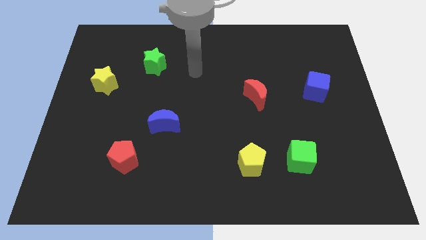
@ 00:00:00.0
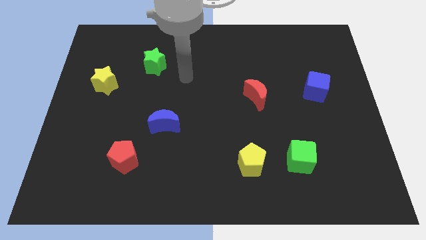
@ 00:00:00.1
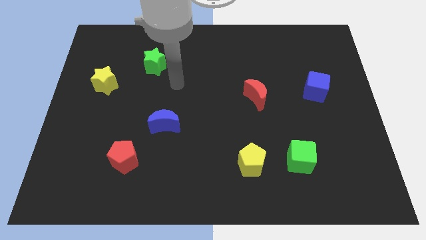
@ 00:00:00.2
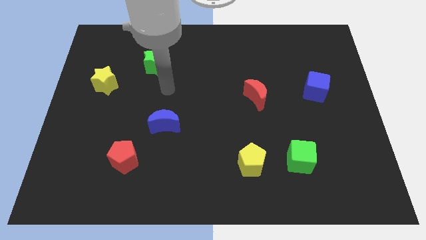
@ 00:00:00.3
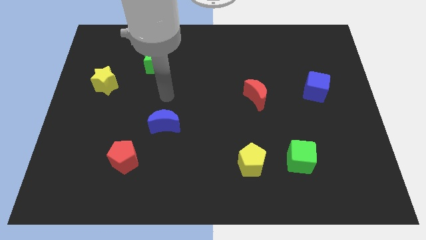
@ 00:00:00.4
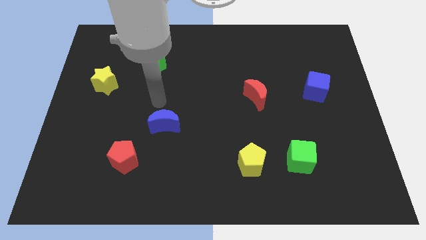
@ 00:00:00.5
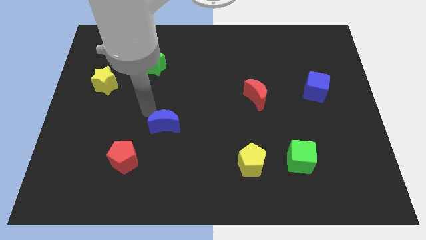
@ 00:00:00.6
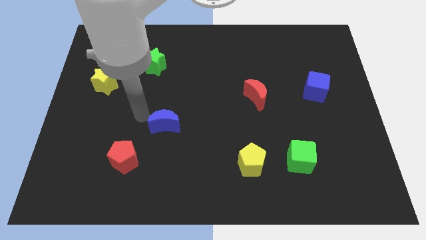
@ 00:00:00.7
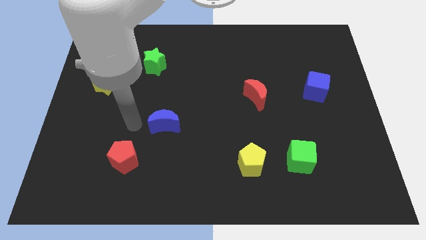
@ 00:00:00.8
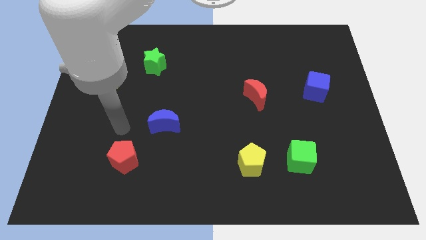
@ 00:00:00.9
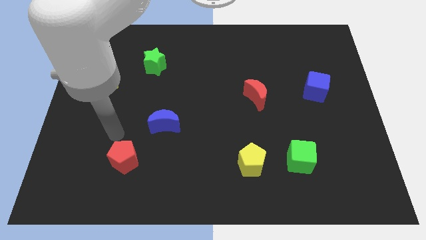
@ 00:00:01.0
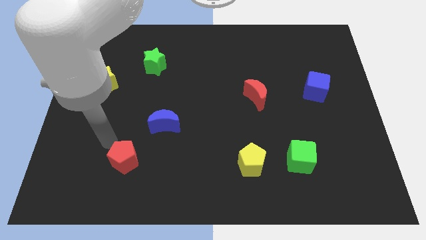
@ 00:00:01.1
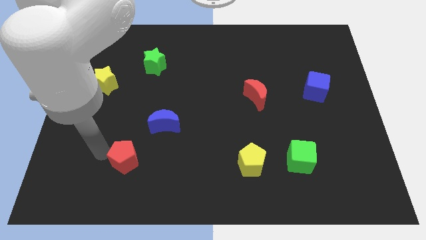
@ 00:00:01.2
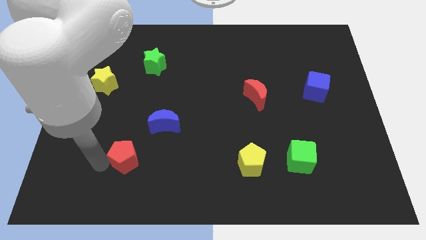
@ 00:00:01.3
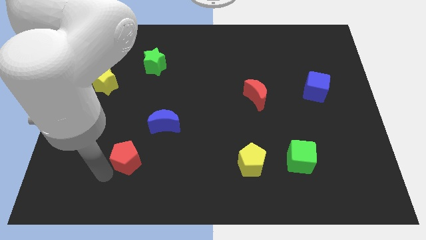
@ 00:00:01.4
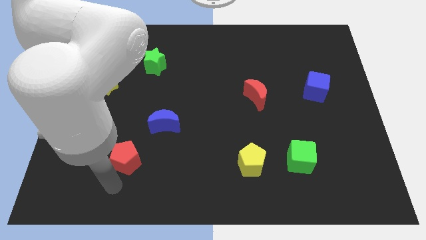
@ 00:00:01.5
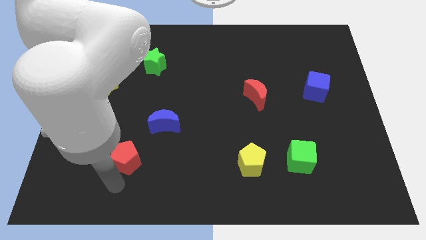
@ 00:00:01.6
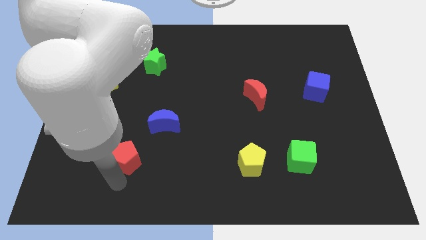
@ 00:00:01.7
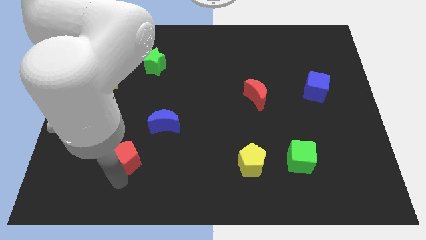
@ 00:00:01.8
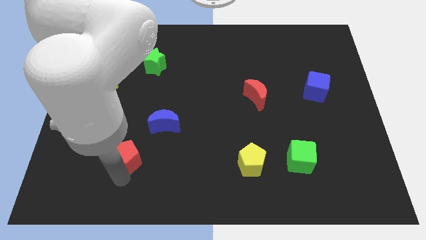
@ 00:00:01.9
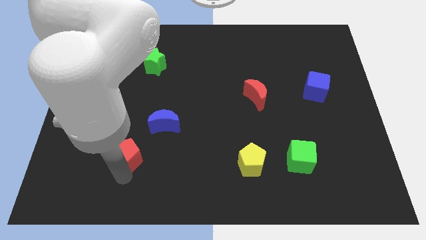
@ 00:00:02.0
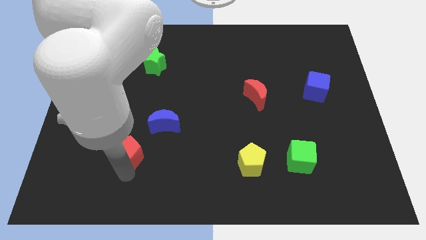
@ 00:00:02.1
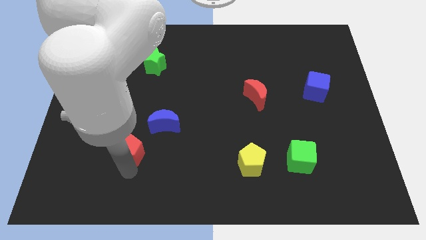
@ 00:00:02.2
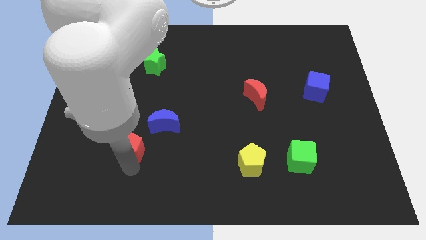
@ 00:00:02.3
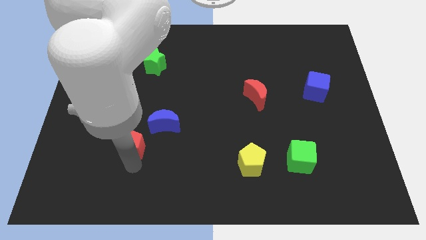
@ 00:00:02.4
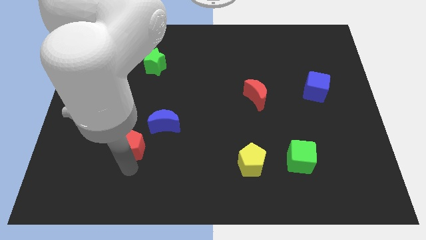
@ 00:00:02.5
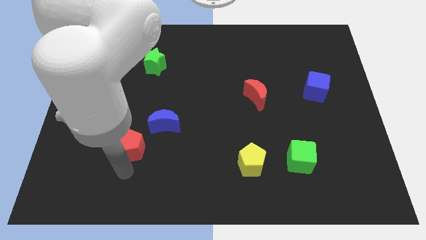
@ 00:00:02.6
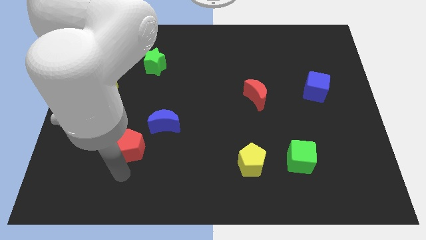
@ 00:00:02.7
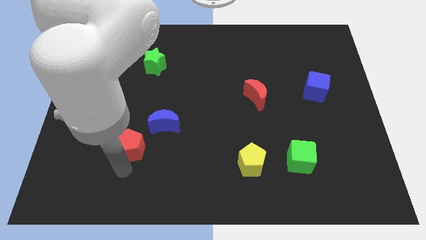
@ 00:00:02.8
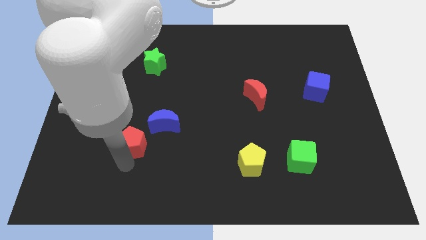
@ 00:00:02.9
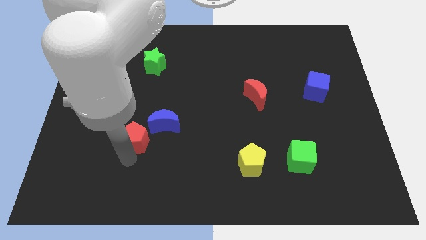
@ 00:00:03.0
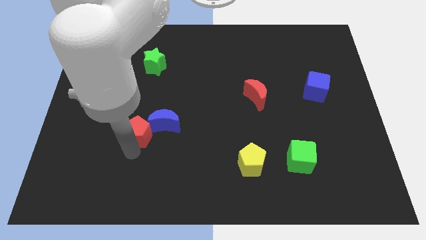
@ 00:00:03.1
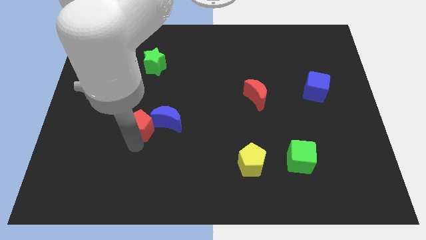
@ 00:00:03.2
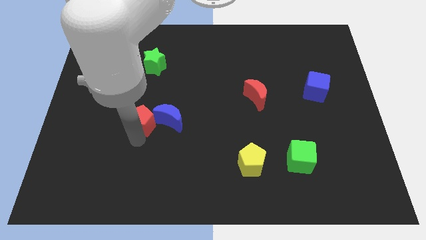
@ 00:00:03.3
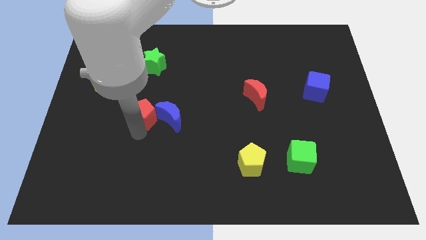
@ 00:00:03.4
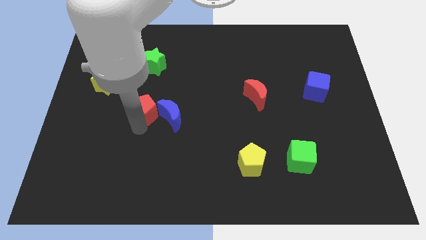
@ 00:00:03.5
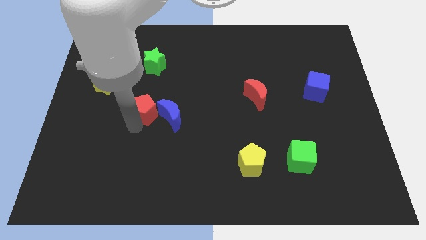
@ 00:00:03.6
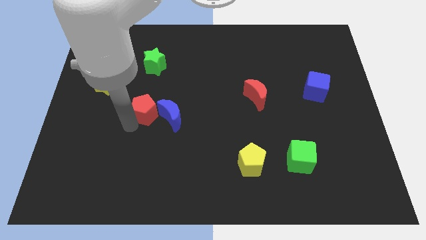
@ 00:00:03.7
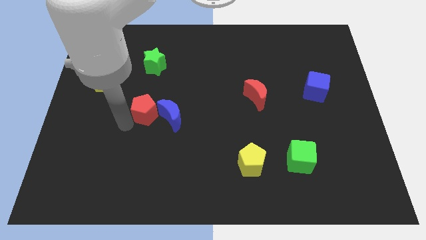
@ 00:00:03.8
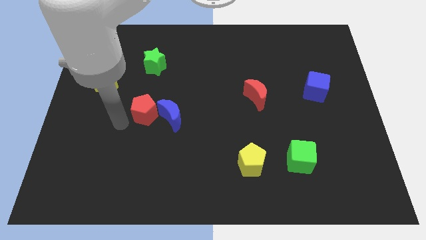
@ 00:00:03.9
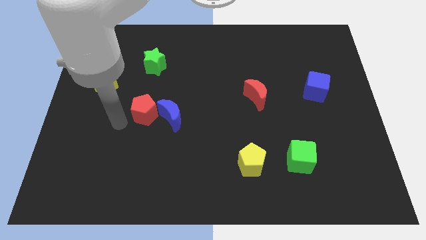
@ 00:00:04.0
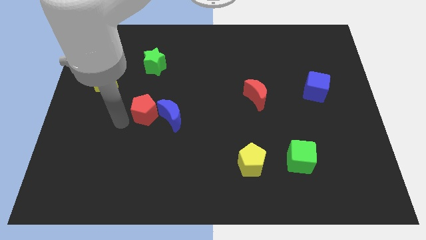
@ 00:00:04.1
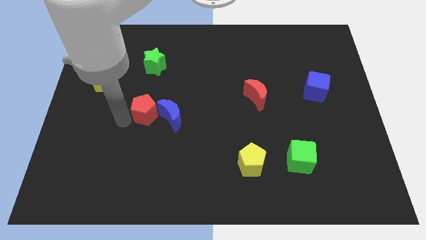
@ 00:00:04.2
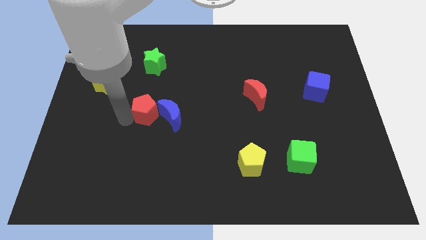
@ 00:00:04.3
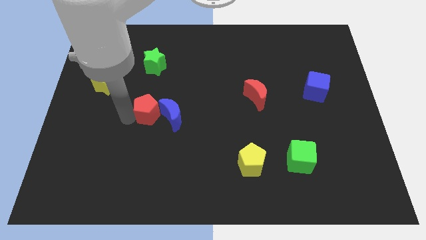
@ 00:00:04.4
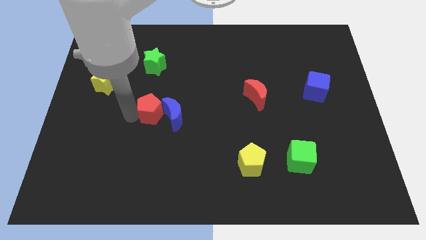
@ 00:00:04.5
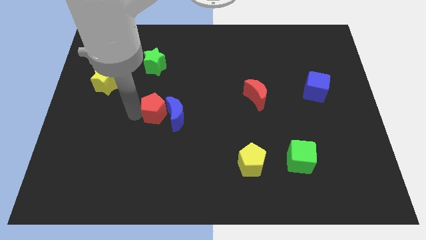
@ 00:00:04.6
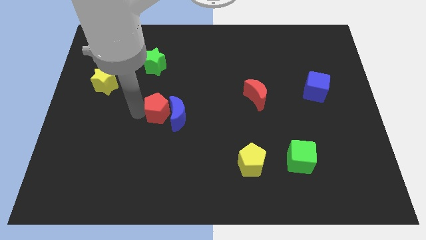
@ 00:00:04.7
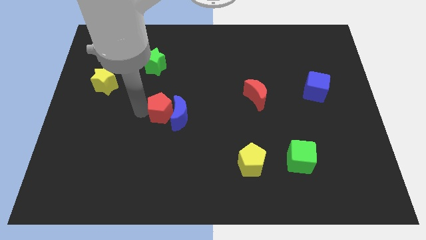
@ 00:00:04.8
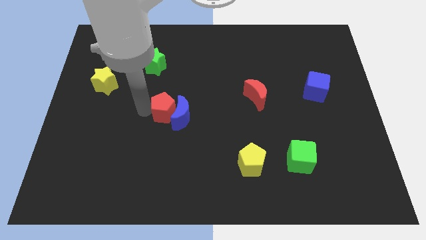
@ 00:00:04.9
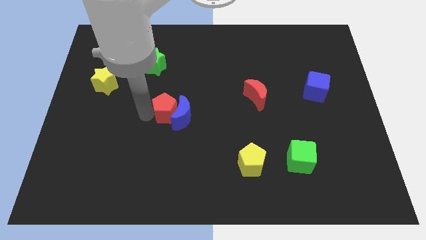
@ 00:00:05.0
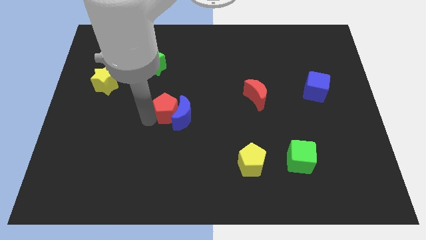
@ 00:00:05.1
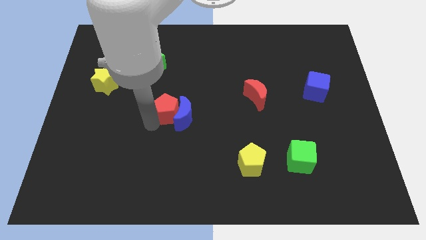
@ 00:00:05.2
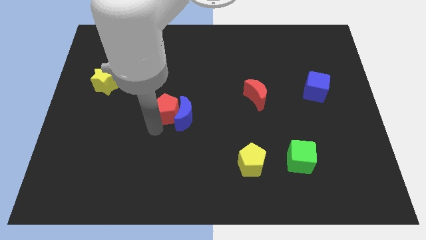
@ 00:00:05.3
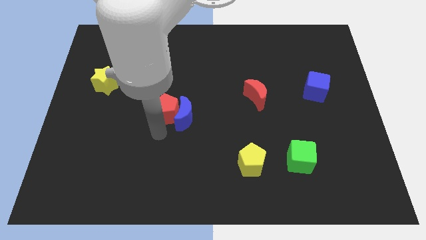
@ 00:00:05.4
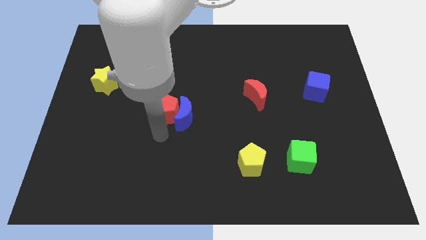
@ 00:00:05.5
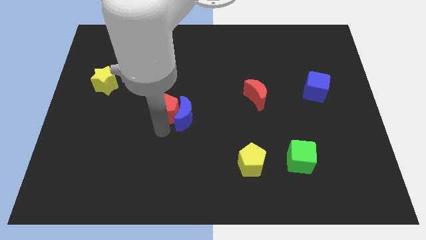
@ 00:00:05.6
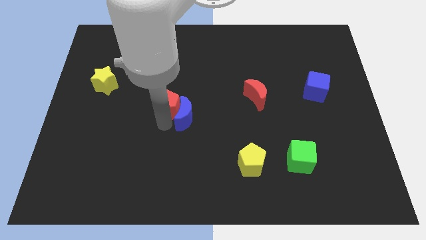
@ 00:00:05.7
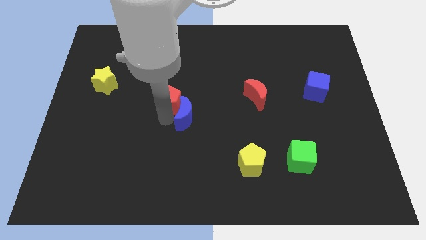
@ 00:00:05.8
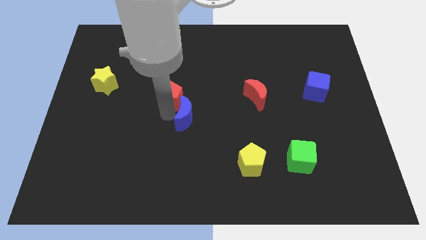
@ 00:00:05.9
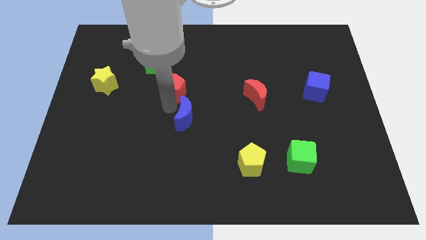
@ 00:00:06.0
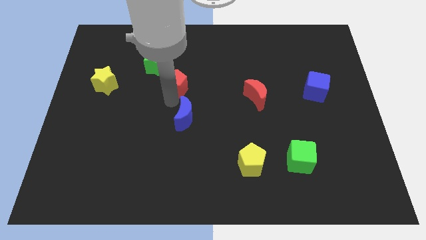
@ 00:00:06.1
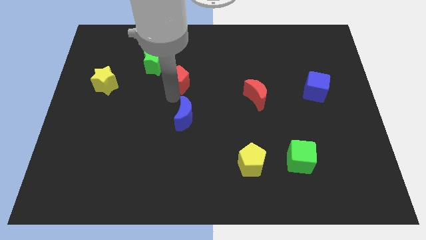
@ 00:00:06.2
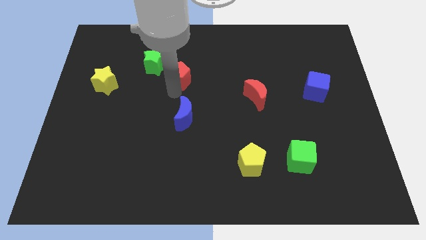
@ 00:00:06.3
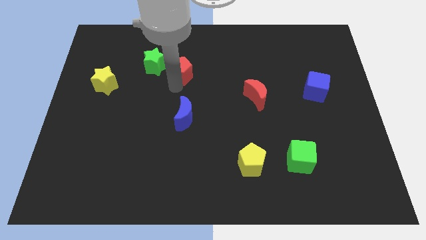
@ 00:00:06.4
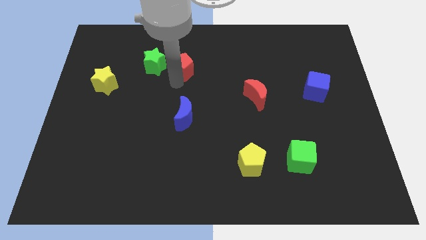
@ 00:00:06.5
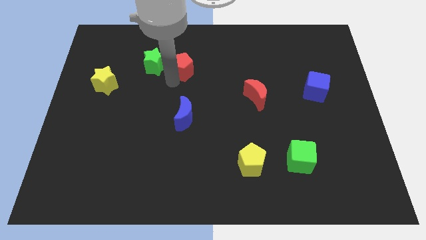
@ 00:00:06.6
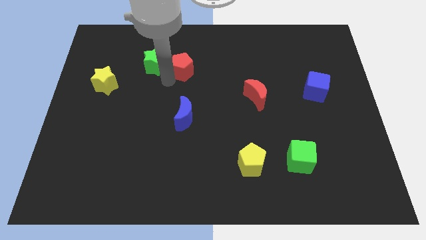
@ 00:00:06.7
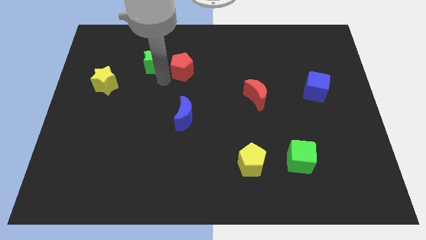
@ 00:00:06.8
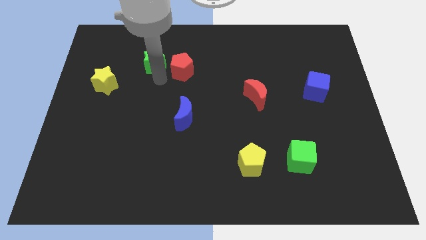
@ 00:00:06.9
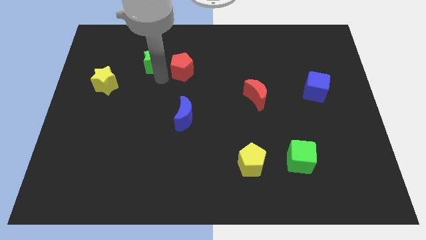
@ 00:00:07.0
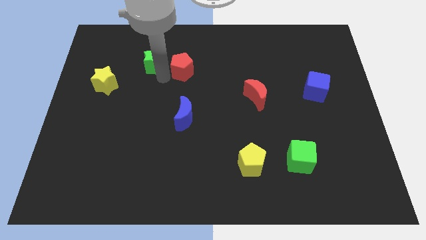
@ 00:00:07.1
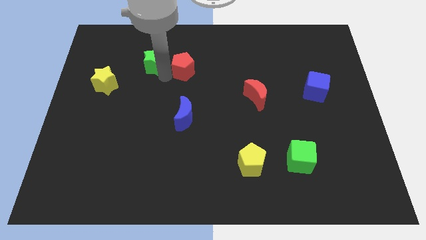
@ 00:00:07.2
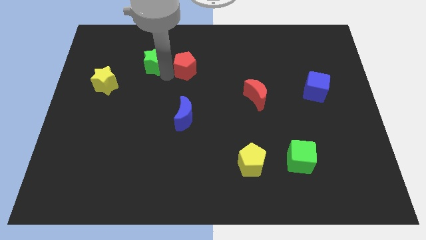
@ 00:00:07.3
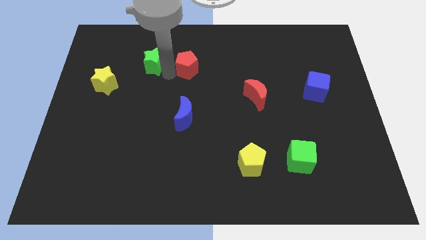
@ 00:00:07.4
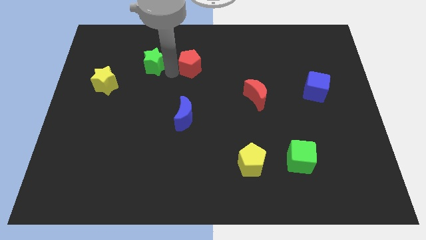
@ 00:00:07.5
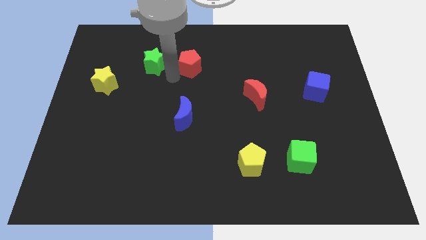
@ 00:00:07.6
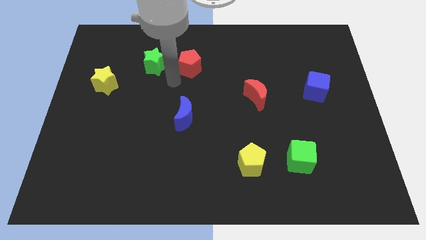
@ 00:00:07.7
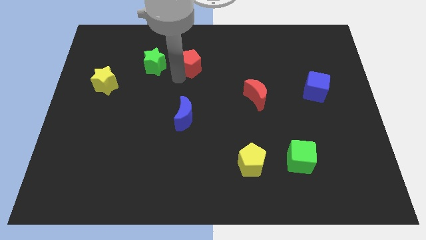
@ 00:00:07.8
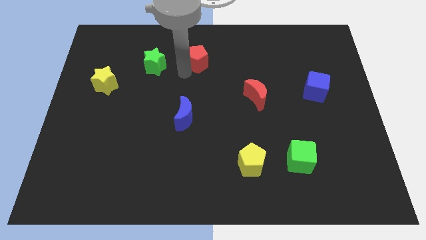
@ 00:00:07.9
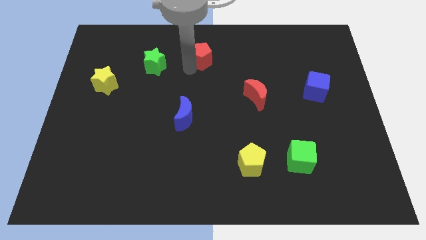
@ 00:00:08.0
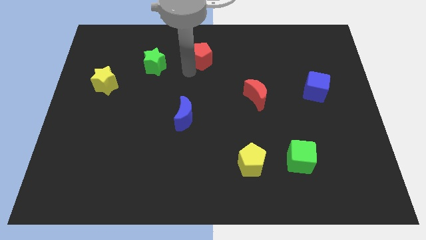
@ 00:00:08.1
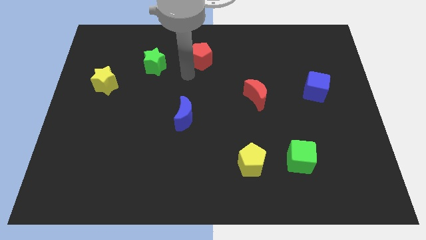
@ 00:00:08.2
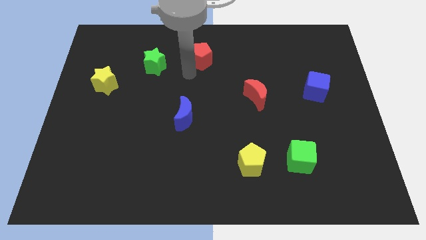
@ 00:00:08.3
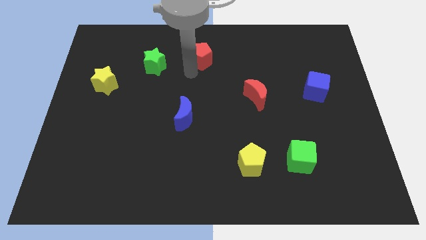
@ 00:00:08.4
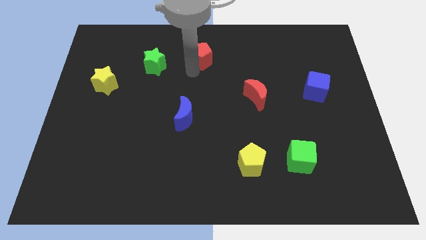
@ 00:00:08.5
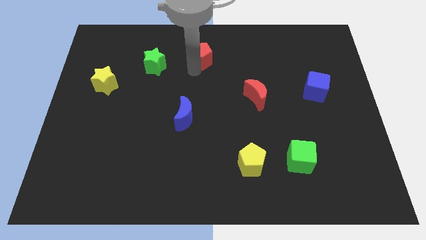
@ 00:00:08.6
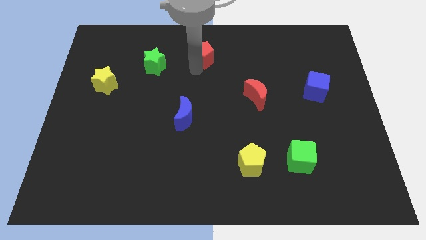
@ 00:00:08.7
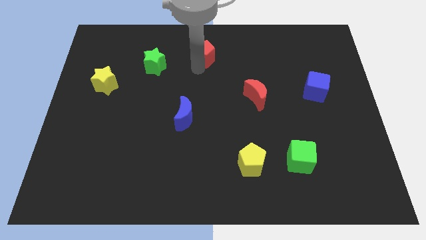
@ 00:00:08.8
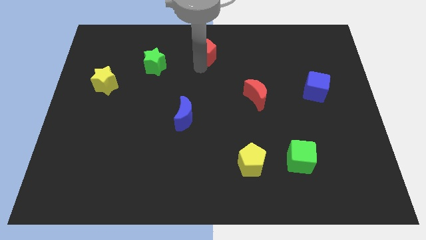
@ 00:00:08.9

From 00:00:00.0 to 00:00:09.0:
move the red pentagon to the top side
